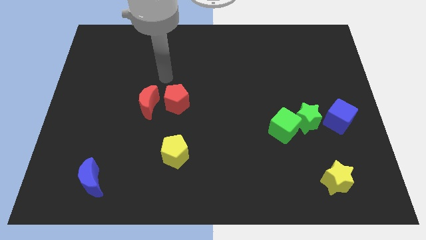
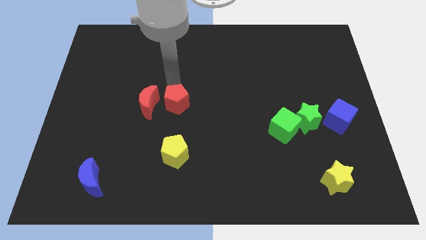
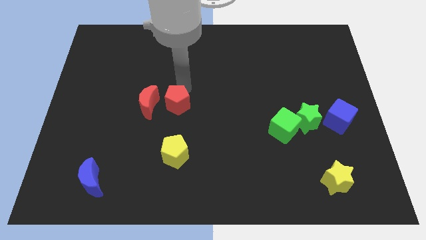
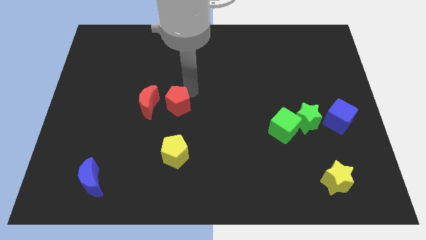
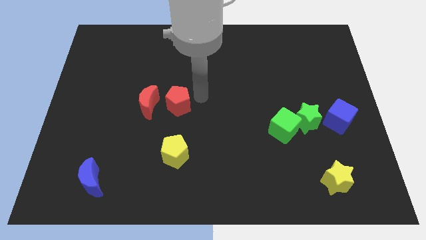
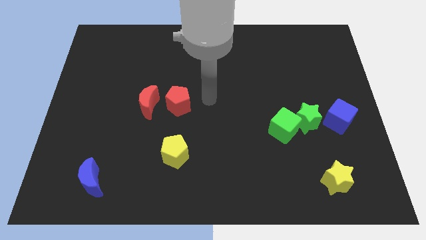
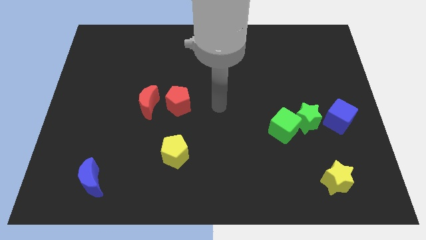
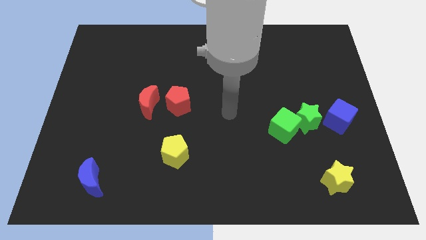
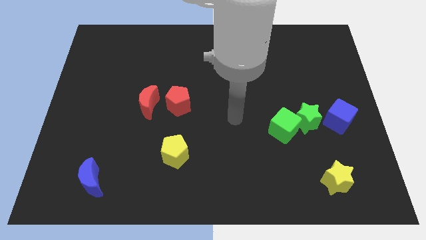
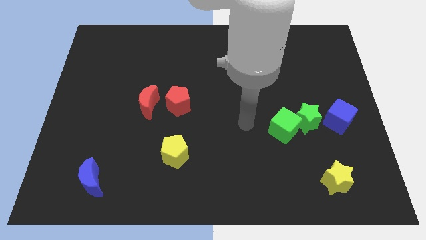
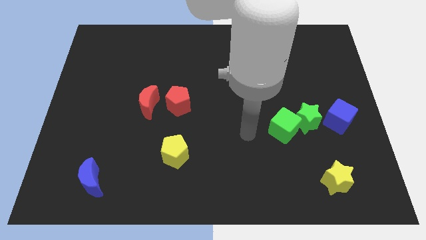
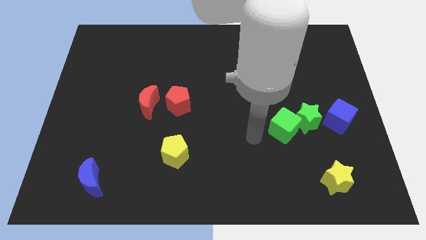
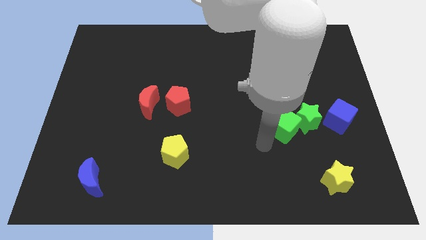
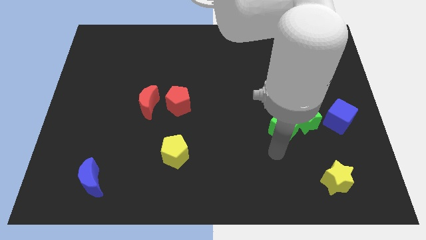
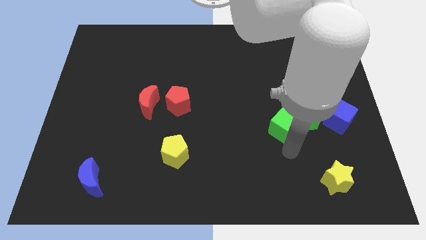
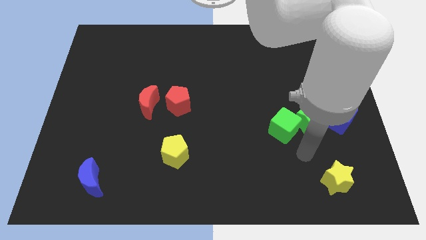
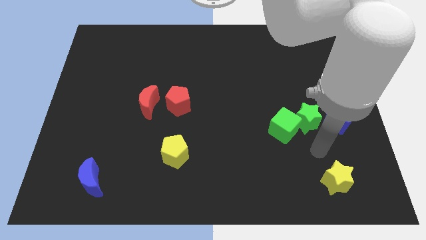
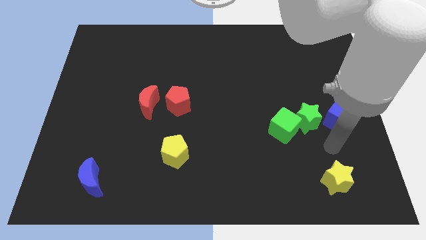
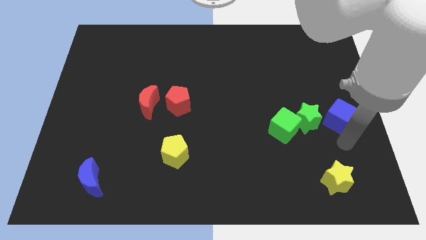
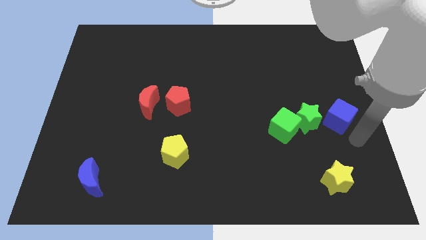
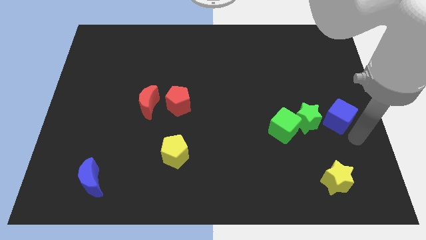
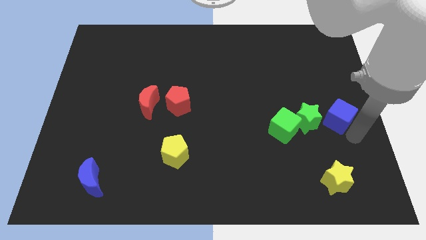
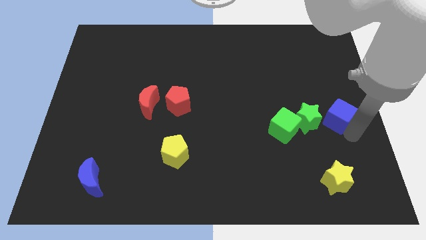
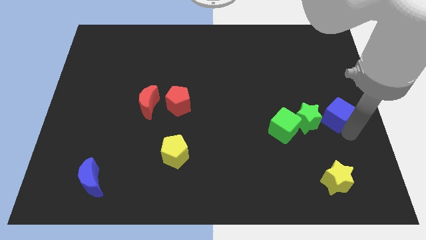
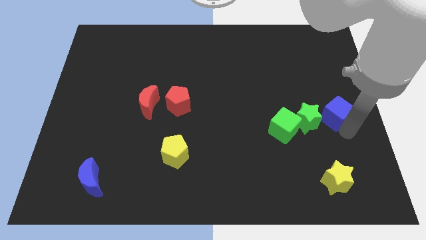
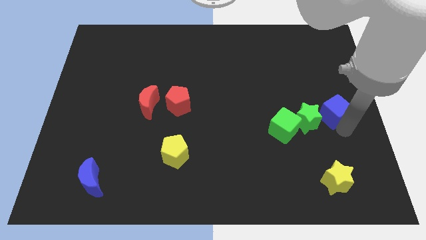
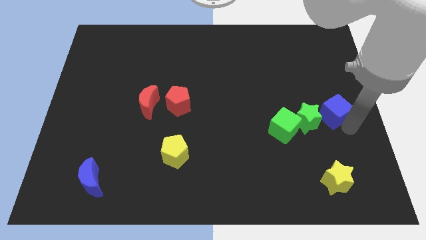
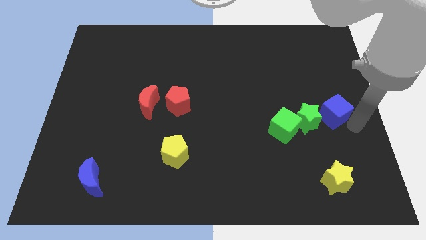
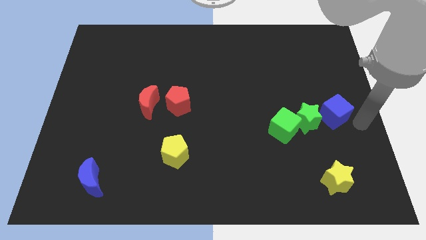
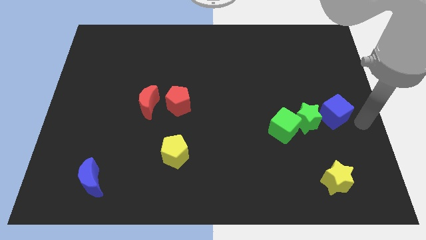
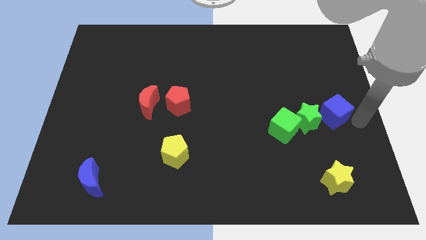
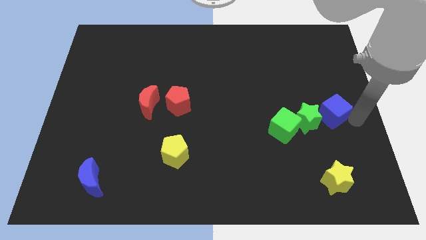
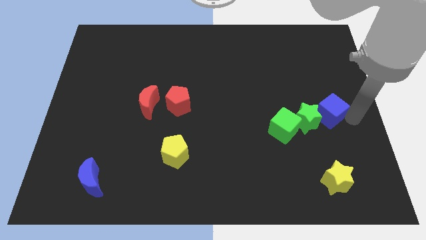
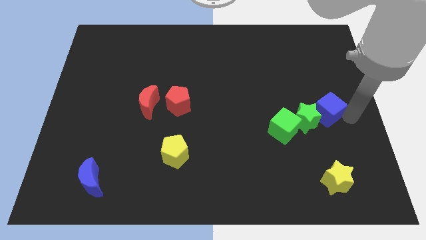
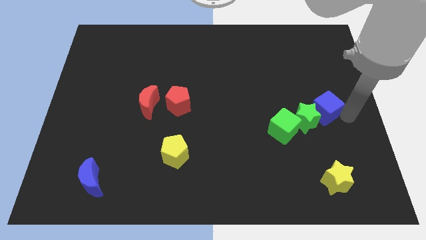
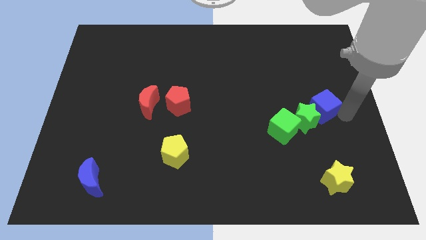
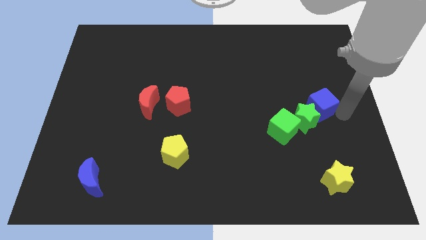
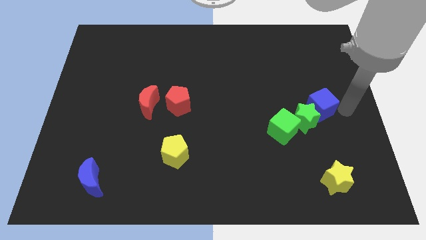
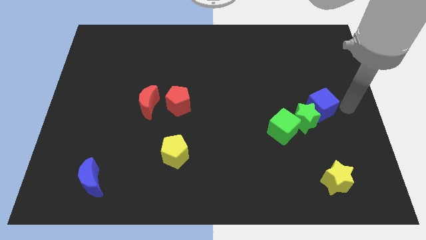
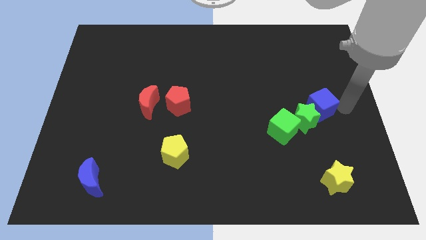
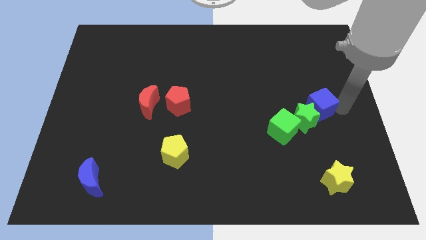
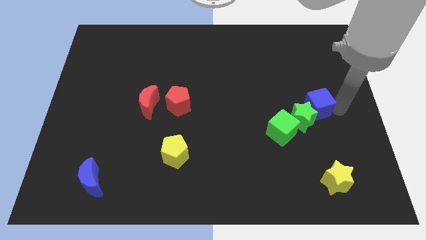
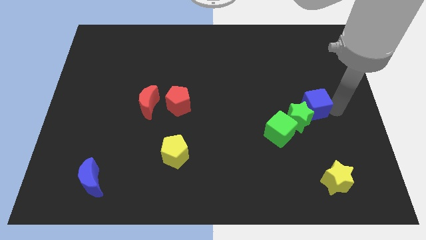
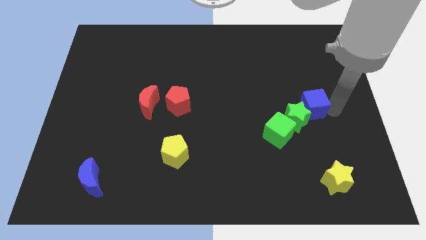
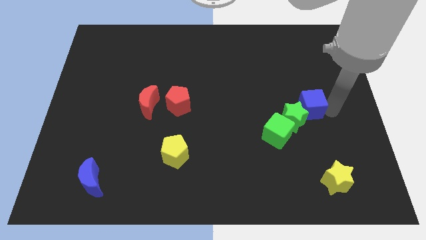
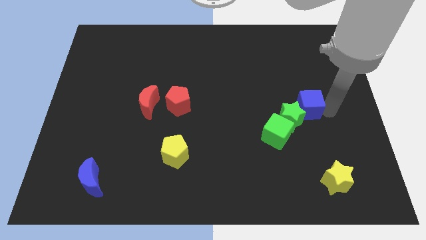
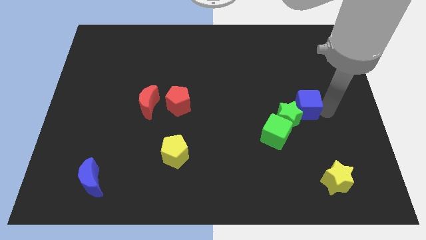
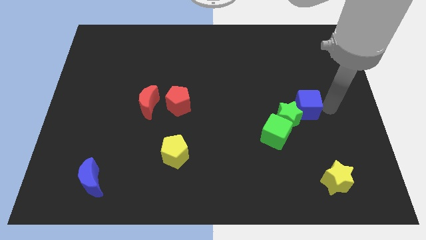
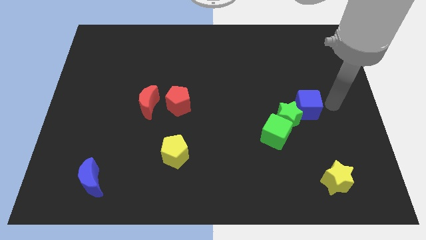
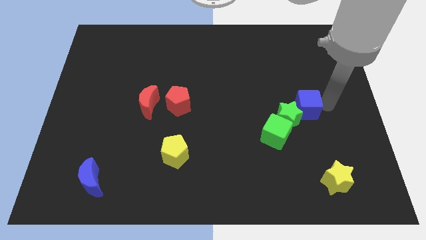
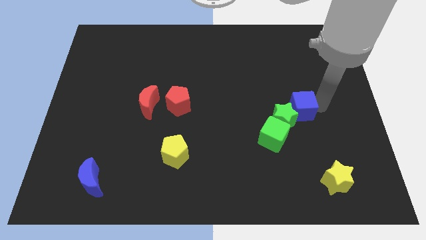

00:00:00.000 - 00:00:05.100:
slightly slide the blue cube to the left

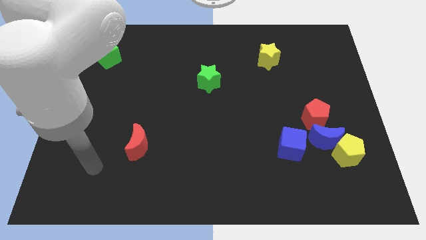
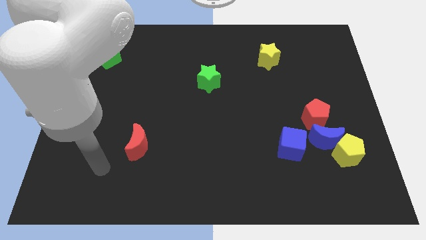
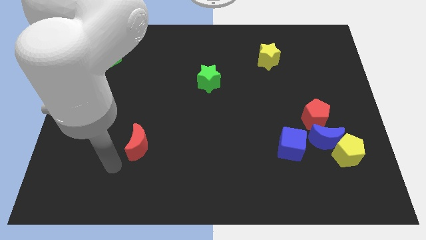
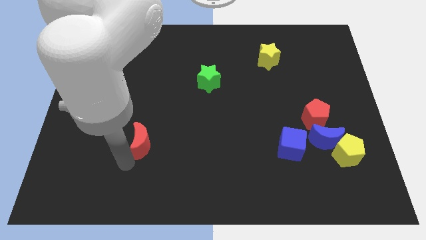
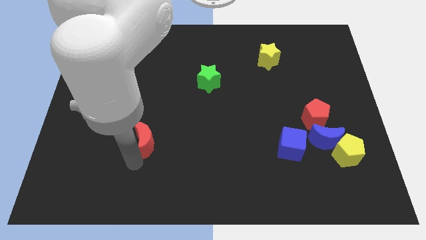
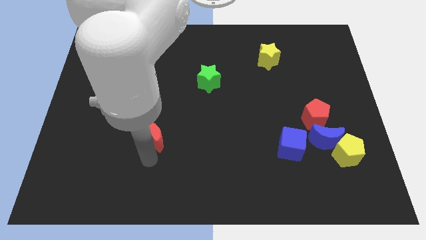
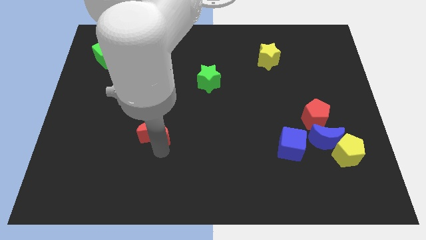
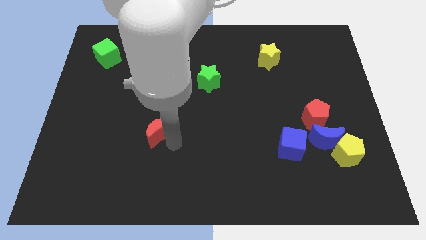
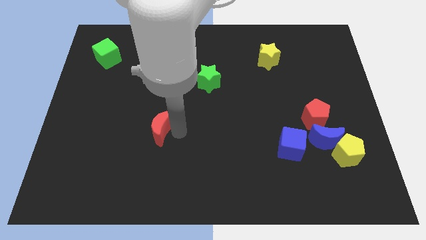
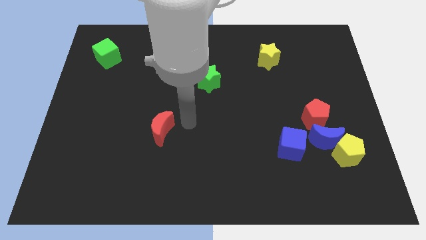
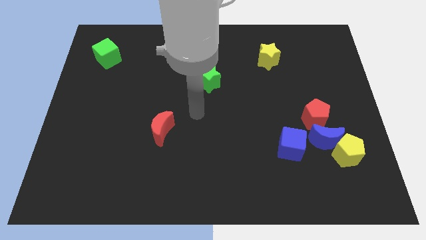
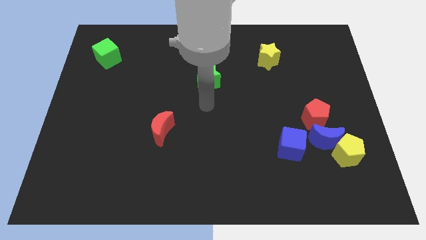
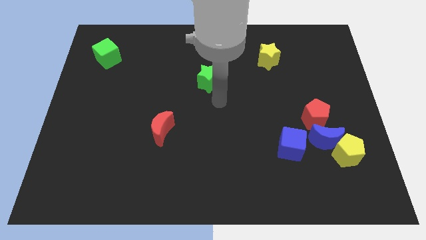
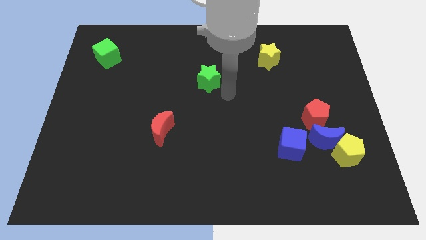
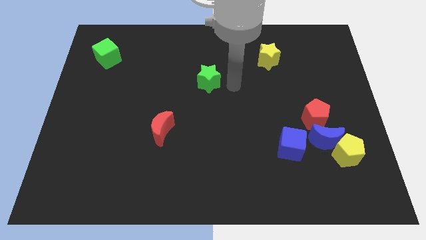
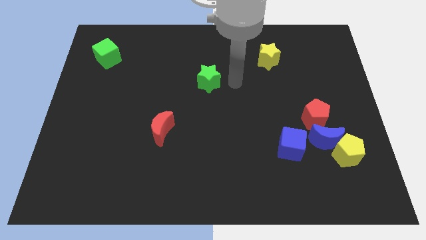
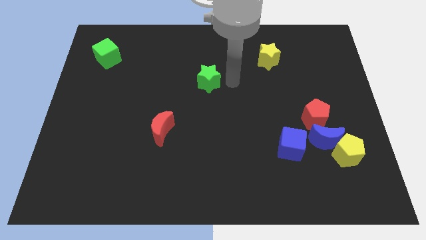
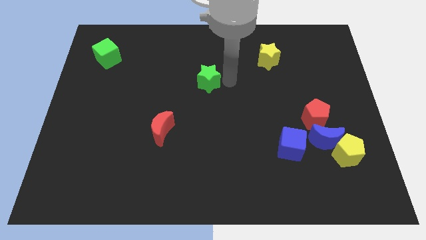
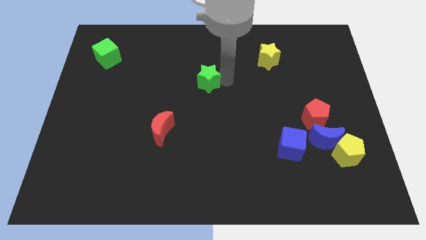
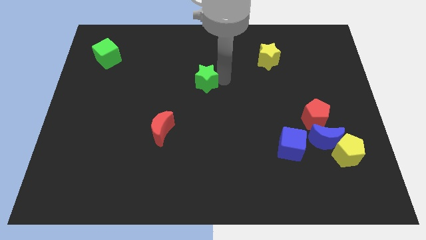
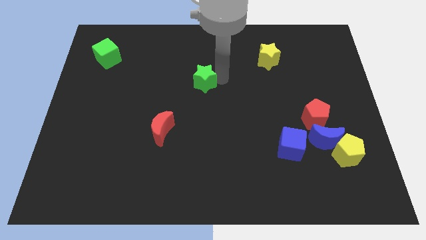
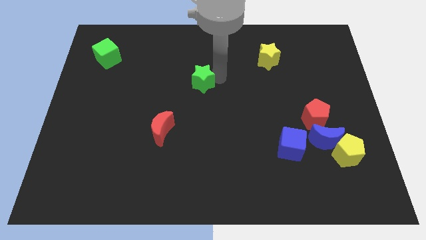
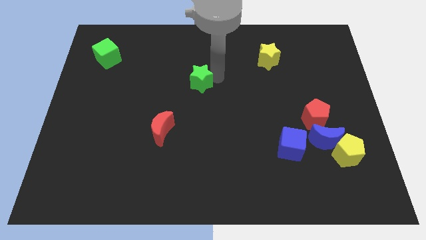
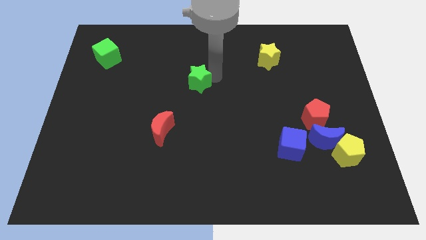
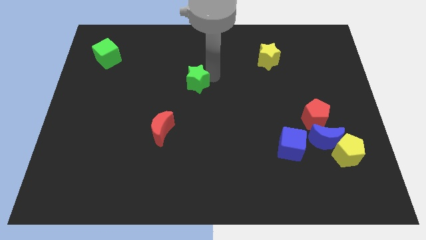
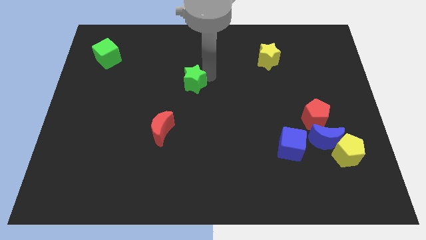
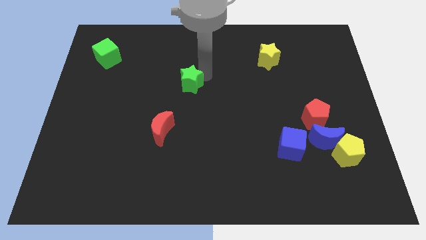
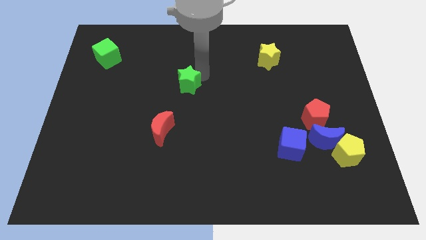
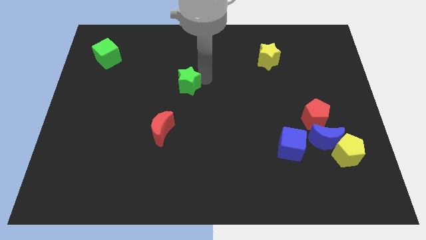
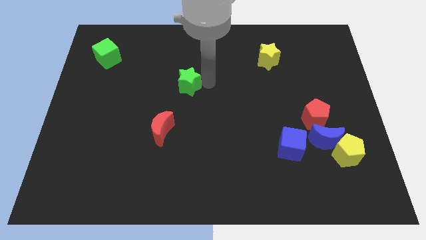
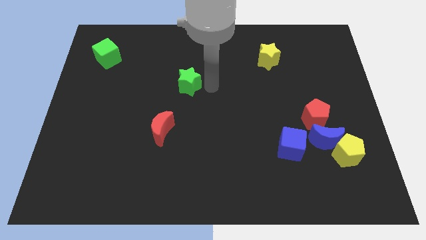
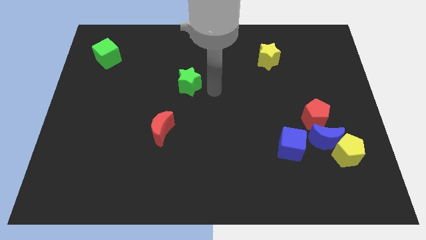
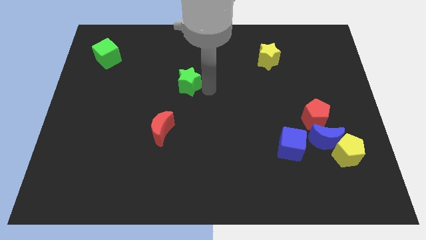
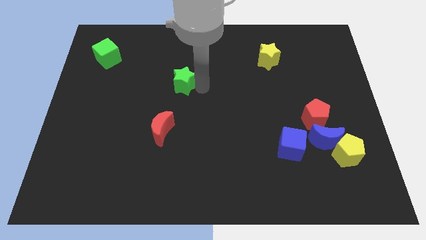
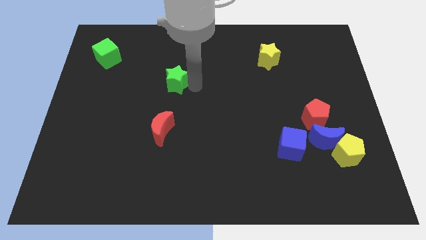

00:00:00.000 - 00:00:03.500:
slide the green star left a little bit
